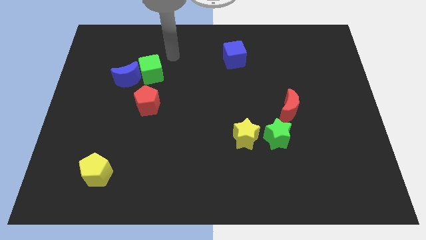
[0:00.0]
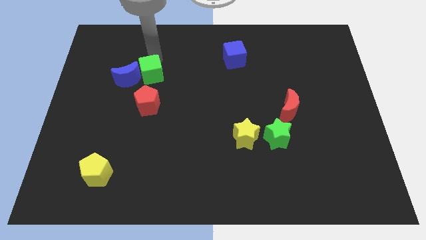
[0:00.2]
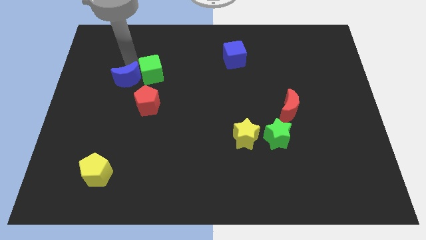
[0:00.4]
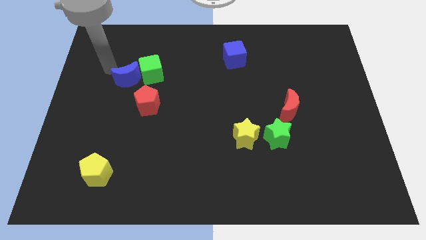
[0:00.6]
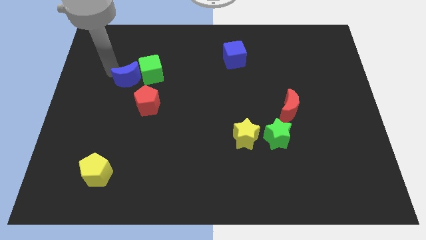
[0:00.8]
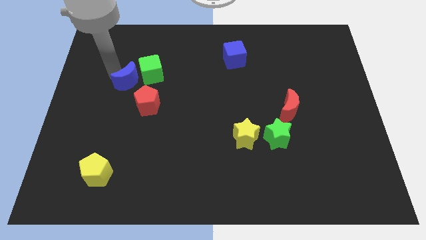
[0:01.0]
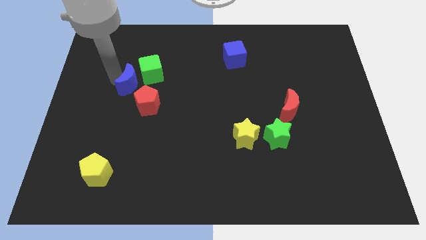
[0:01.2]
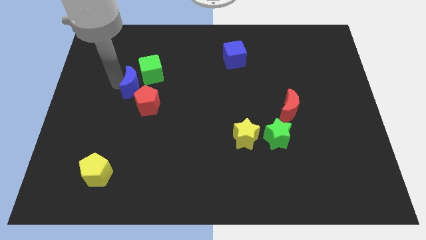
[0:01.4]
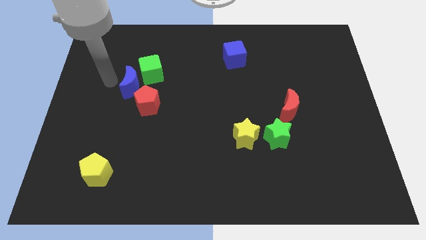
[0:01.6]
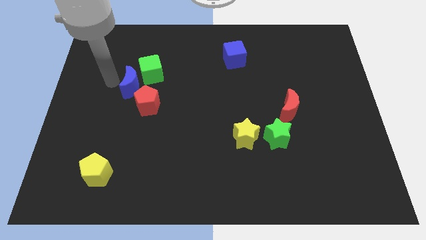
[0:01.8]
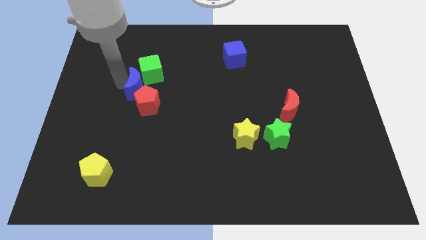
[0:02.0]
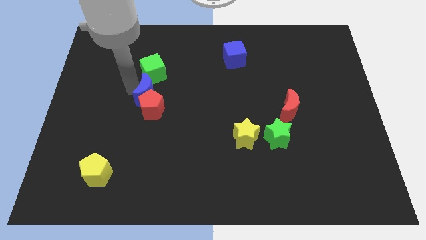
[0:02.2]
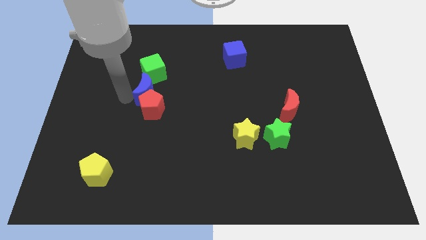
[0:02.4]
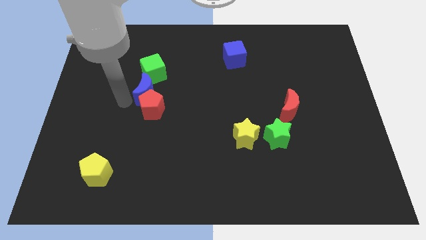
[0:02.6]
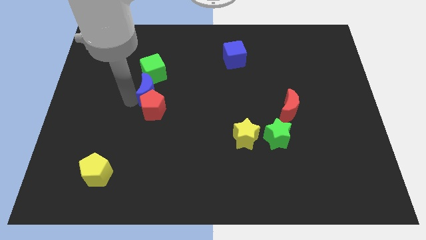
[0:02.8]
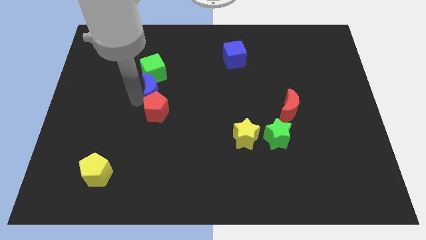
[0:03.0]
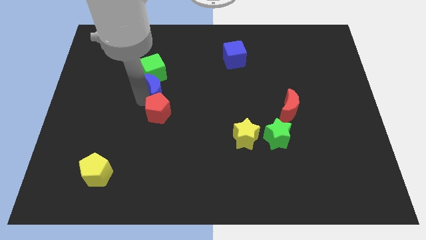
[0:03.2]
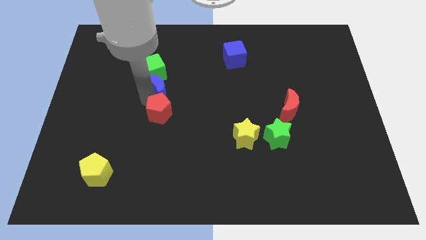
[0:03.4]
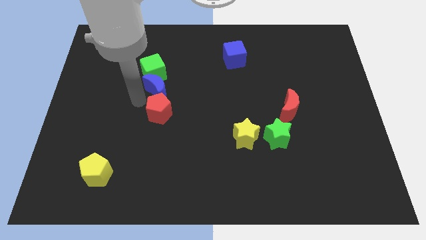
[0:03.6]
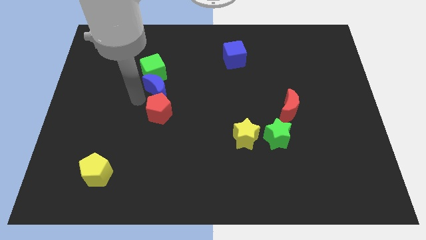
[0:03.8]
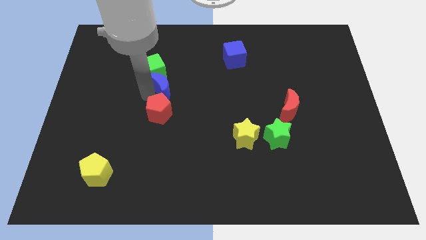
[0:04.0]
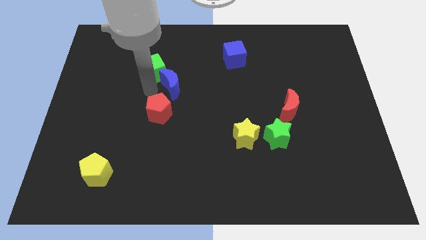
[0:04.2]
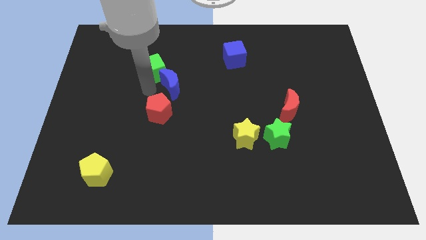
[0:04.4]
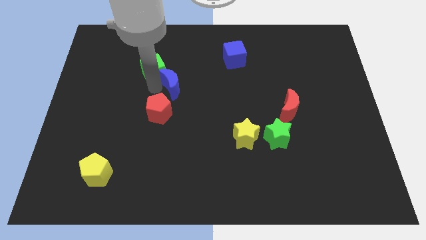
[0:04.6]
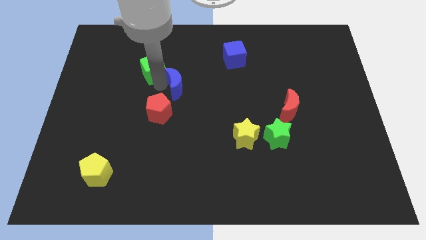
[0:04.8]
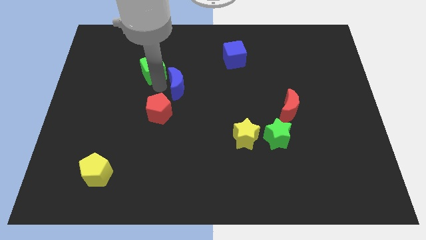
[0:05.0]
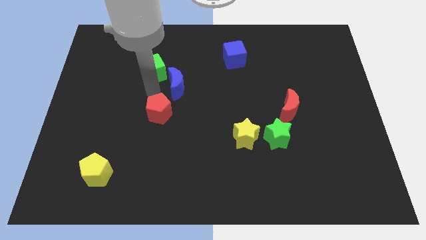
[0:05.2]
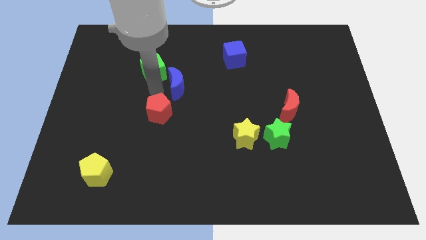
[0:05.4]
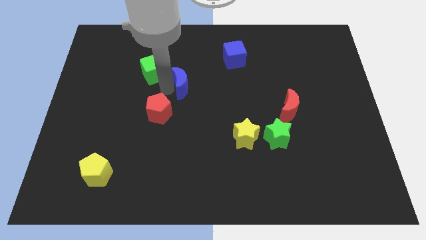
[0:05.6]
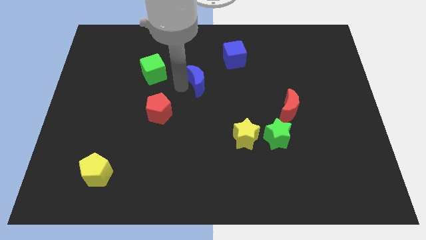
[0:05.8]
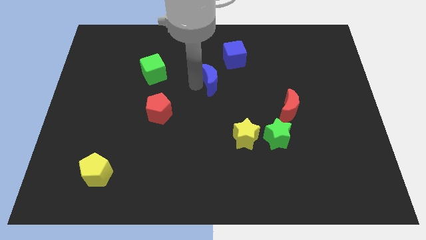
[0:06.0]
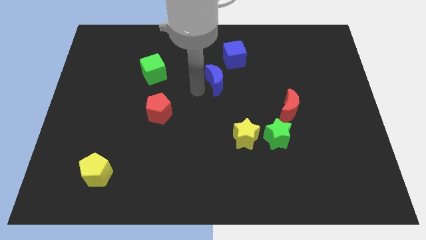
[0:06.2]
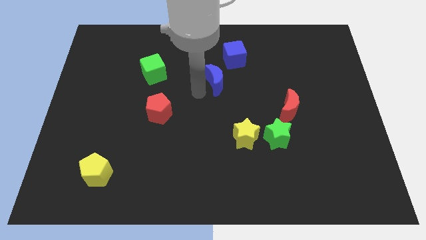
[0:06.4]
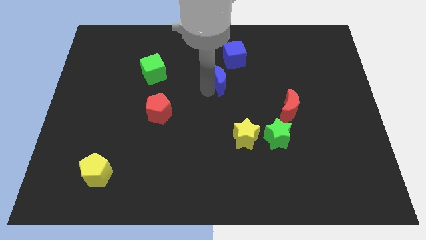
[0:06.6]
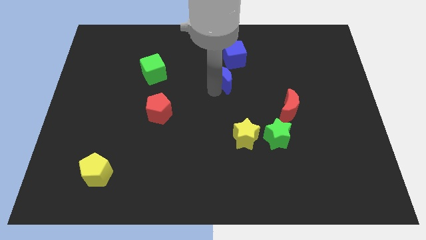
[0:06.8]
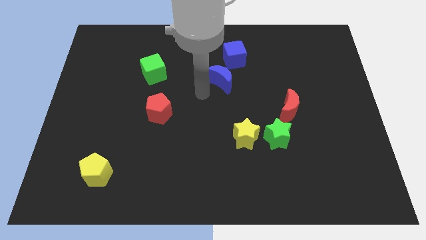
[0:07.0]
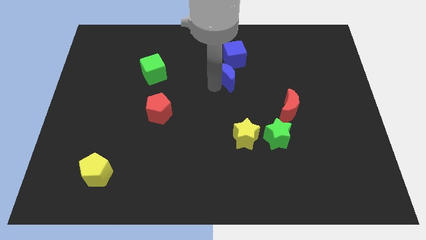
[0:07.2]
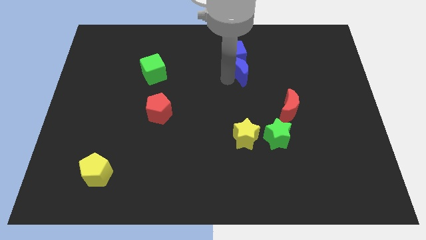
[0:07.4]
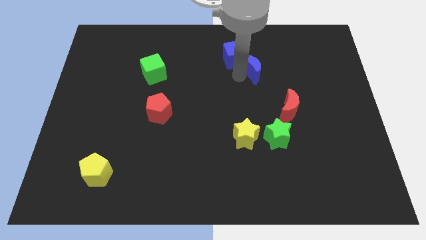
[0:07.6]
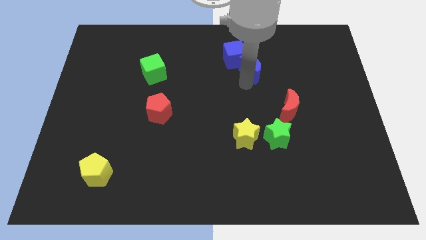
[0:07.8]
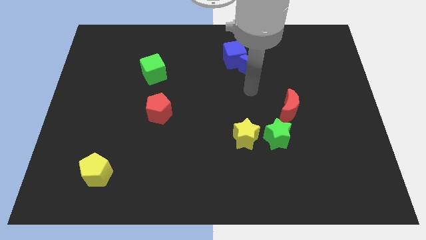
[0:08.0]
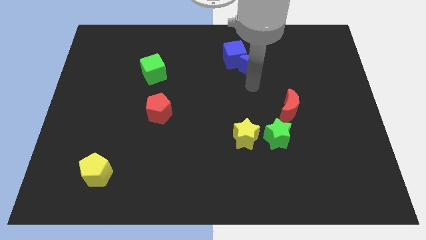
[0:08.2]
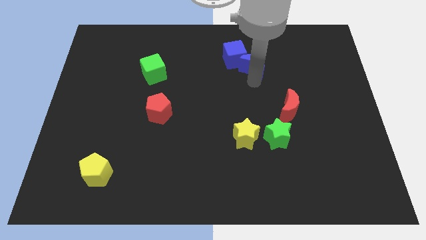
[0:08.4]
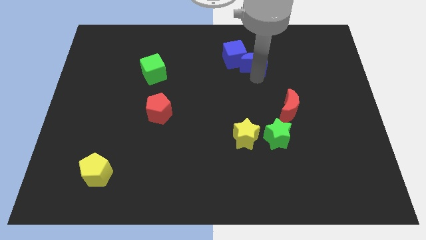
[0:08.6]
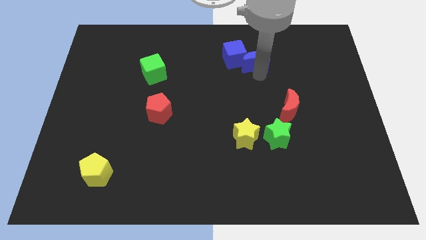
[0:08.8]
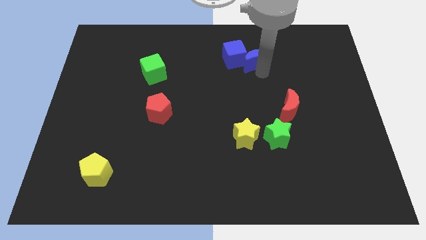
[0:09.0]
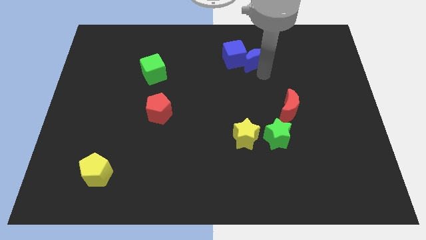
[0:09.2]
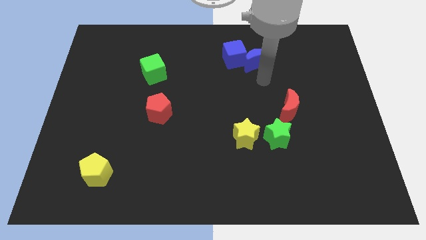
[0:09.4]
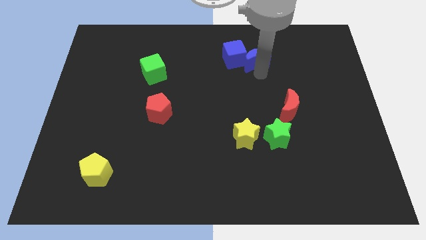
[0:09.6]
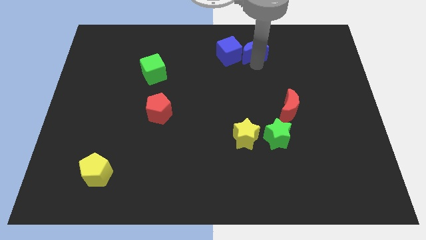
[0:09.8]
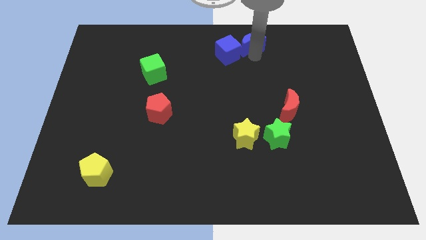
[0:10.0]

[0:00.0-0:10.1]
slide the blue moon to the top

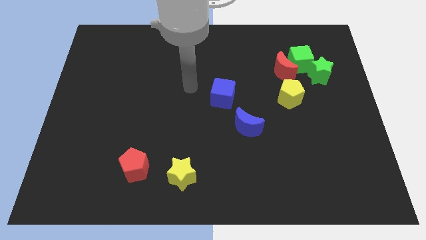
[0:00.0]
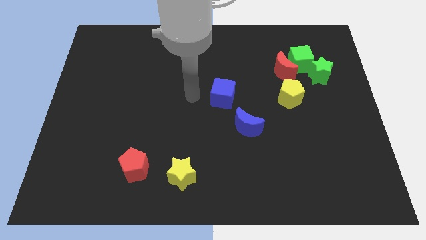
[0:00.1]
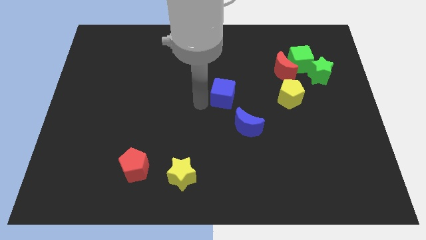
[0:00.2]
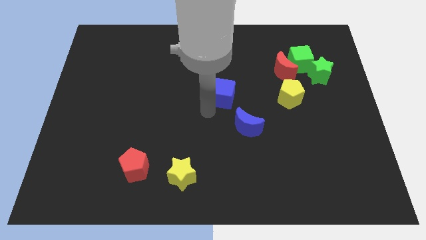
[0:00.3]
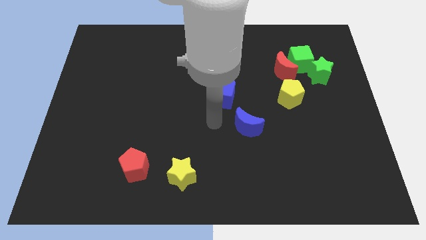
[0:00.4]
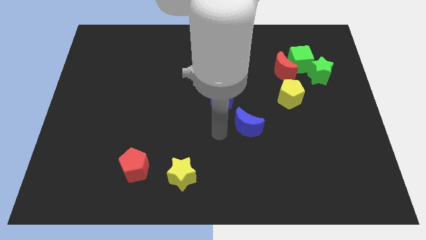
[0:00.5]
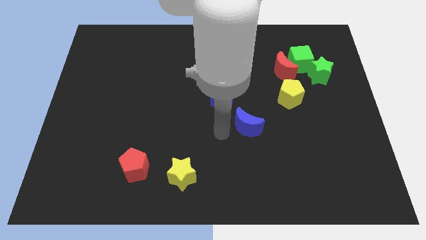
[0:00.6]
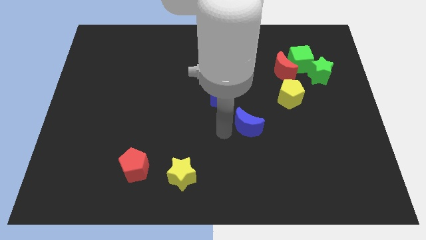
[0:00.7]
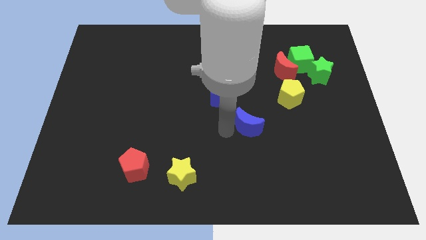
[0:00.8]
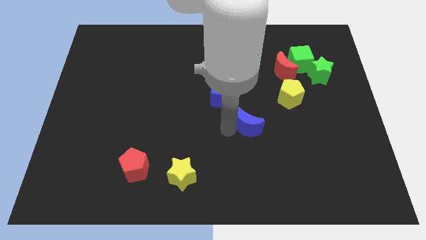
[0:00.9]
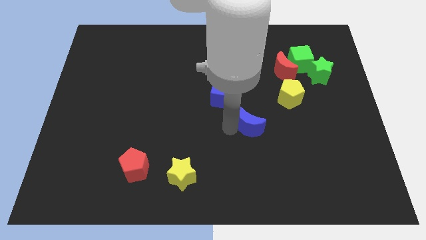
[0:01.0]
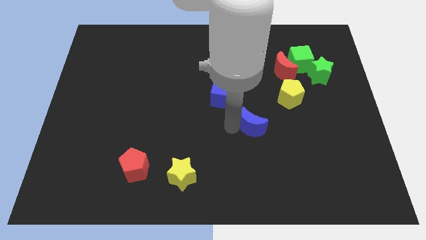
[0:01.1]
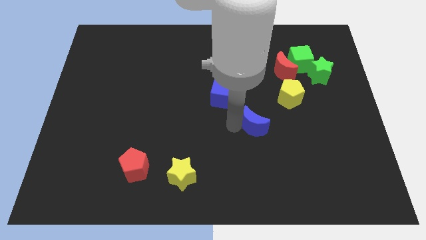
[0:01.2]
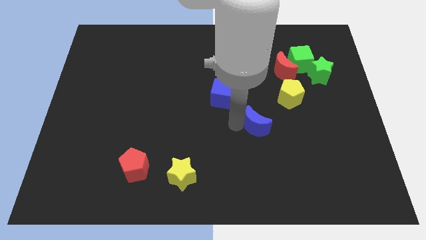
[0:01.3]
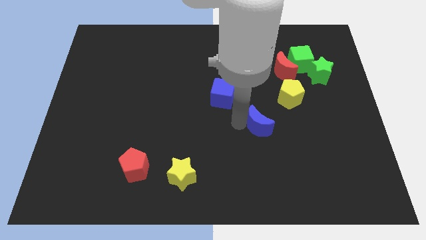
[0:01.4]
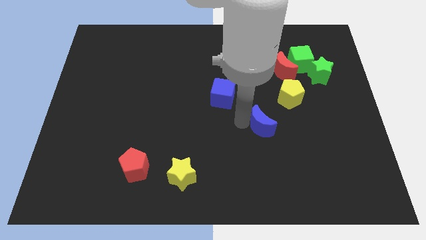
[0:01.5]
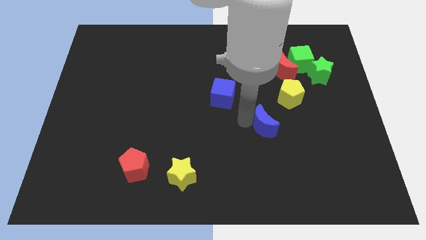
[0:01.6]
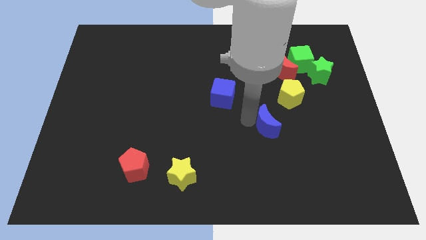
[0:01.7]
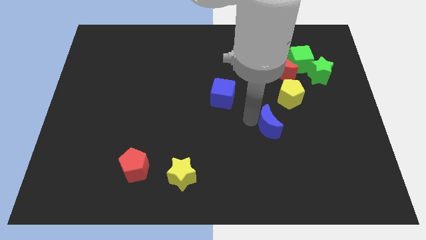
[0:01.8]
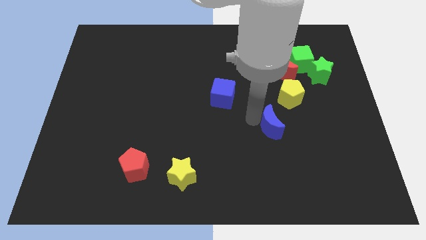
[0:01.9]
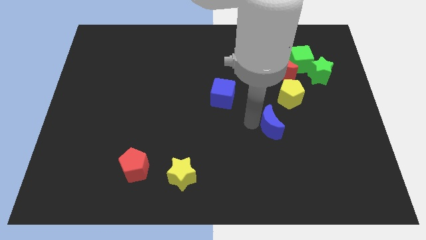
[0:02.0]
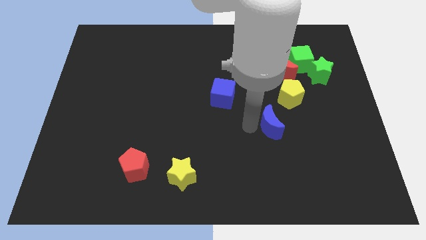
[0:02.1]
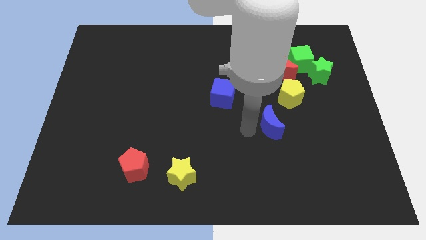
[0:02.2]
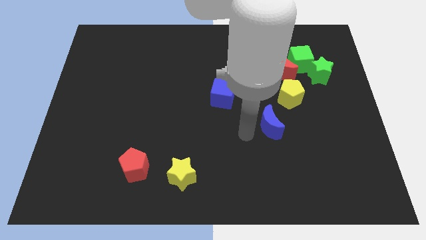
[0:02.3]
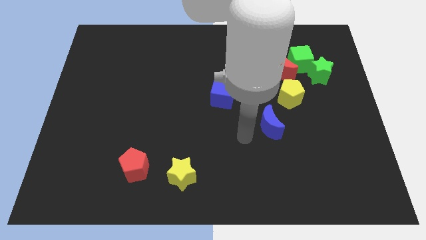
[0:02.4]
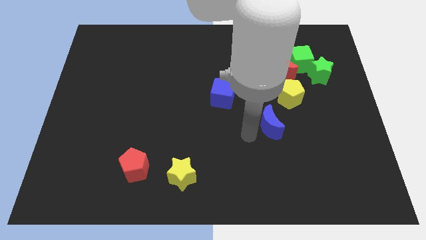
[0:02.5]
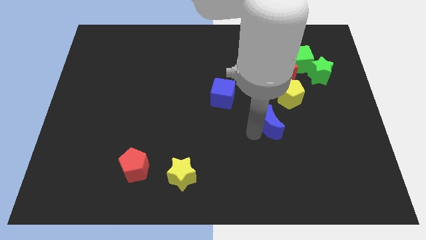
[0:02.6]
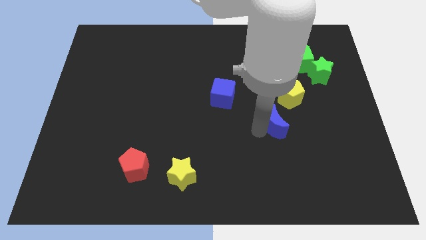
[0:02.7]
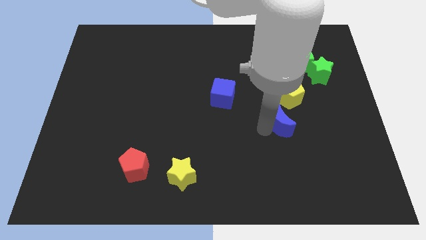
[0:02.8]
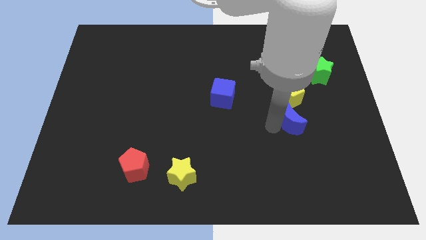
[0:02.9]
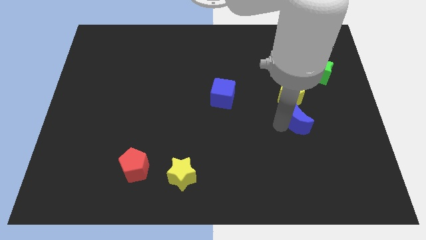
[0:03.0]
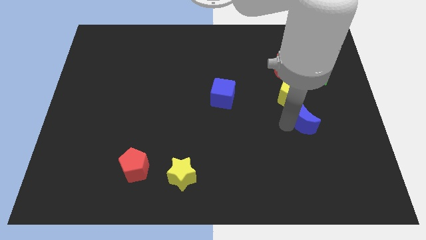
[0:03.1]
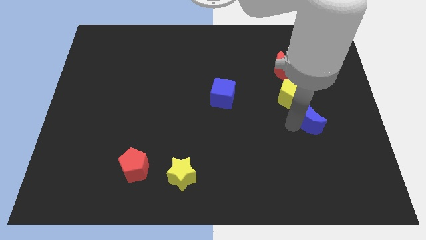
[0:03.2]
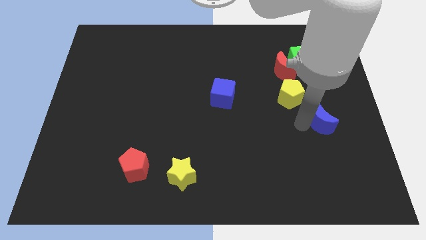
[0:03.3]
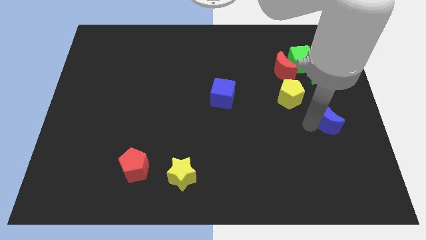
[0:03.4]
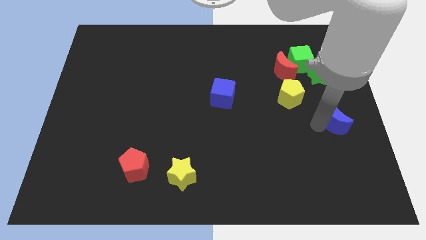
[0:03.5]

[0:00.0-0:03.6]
slide the blue moon to the right side
